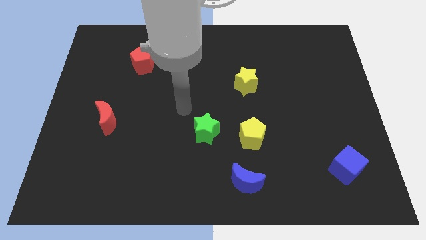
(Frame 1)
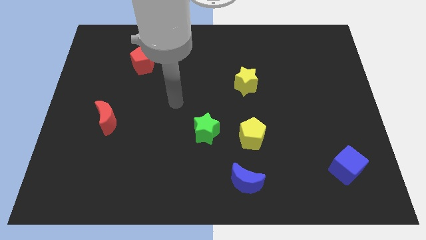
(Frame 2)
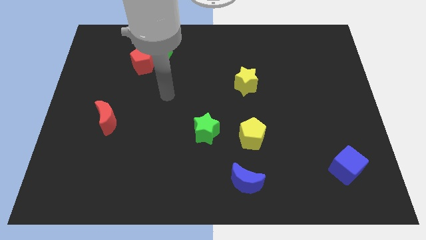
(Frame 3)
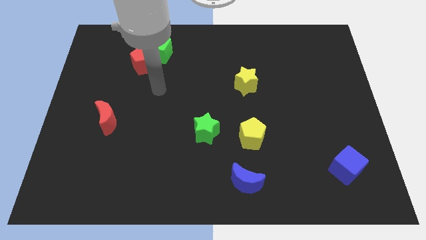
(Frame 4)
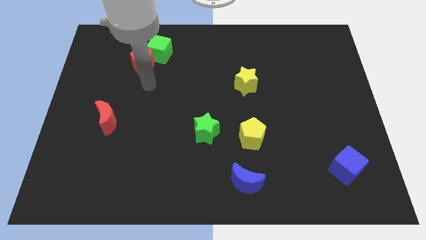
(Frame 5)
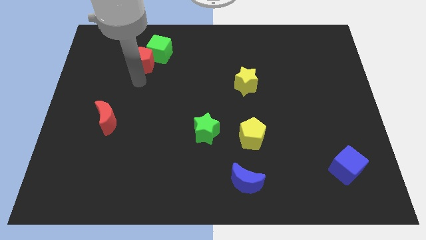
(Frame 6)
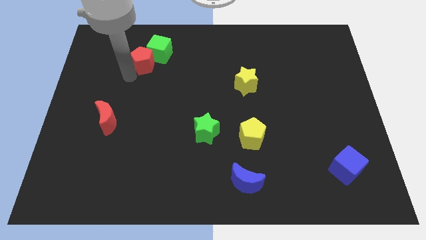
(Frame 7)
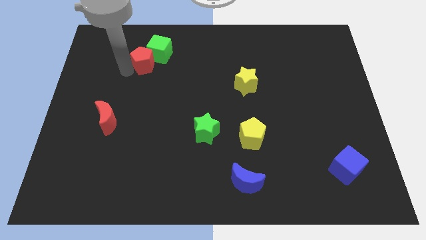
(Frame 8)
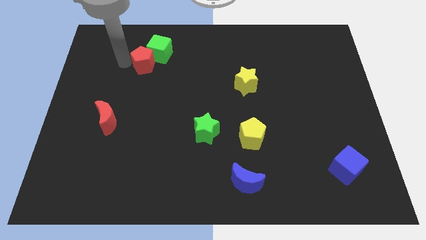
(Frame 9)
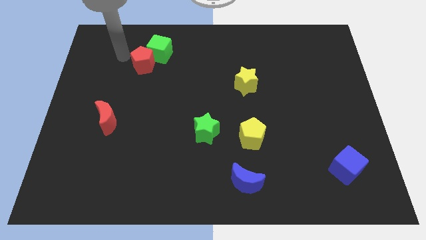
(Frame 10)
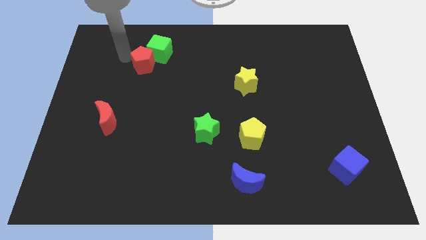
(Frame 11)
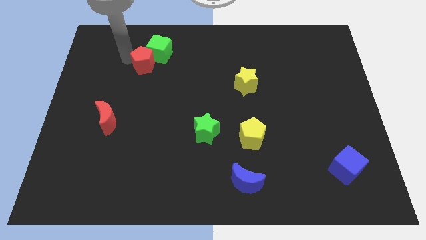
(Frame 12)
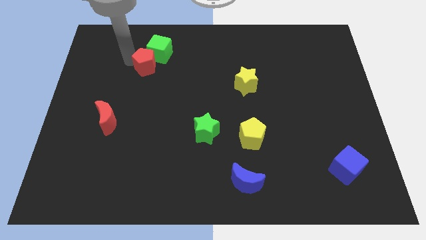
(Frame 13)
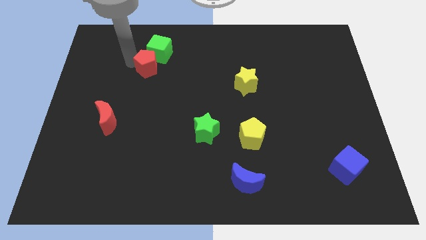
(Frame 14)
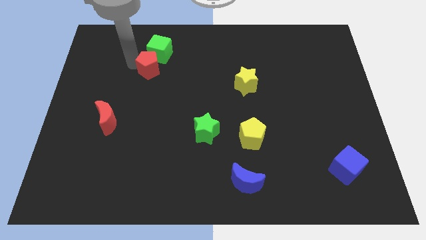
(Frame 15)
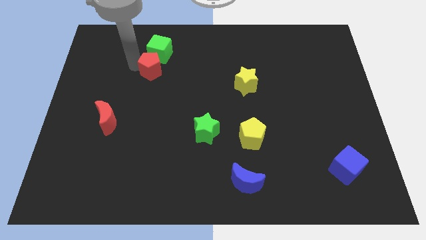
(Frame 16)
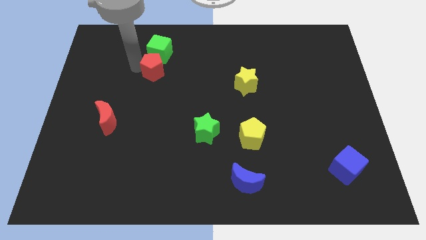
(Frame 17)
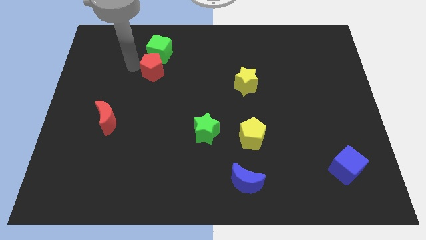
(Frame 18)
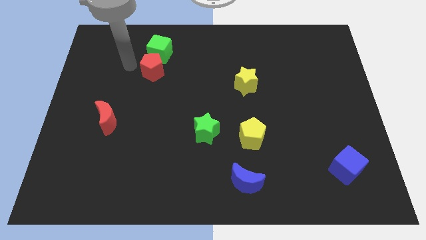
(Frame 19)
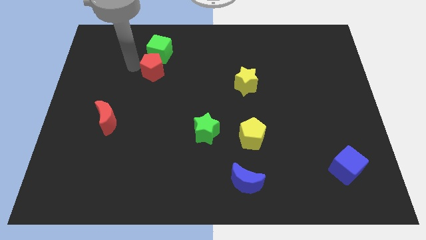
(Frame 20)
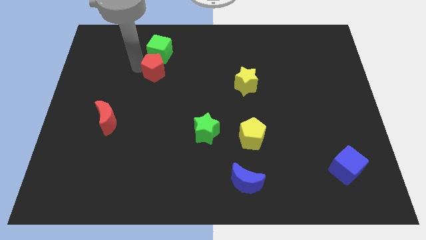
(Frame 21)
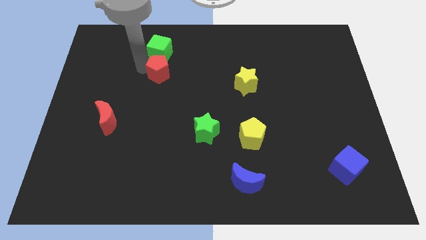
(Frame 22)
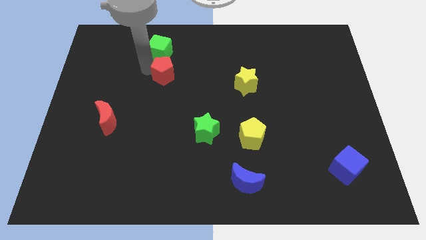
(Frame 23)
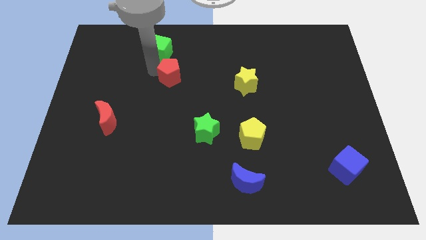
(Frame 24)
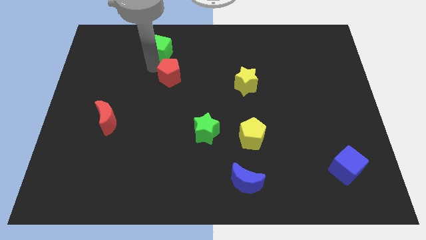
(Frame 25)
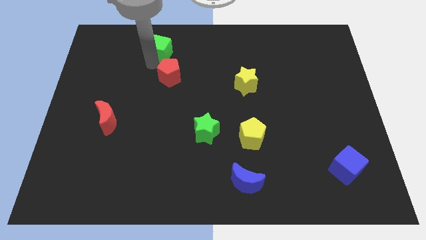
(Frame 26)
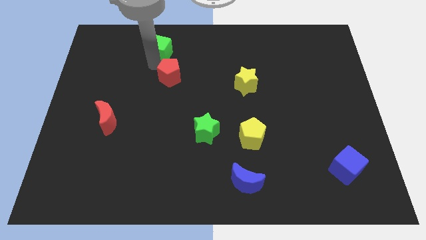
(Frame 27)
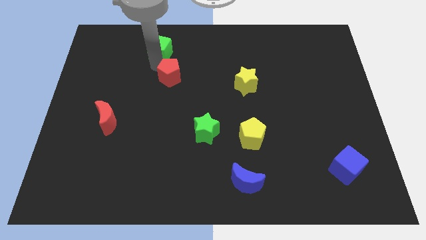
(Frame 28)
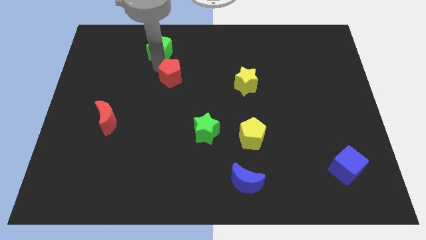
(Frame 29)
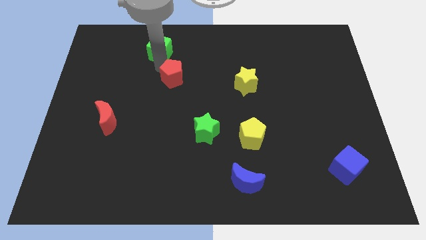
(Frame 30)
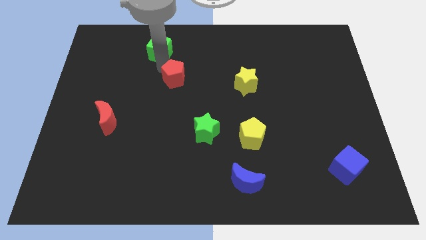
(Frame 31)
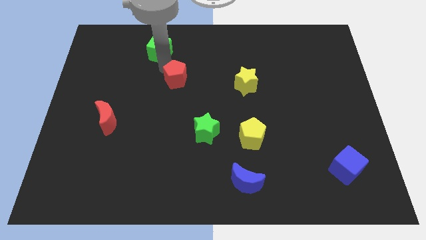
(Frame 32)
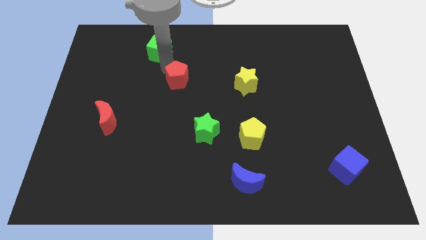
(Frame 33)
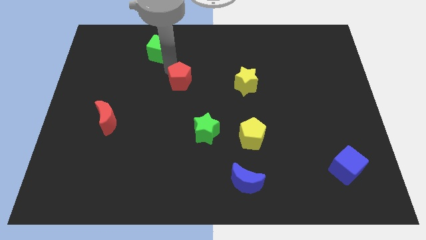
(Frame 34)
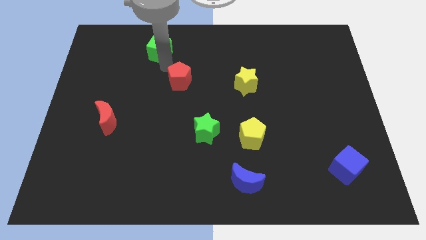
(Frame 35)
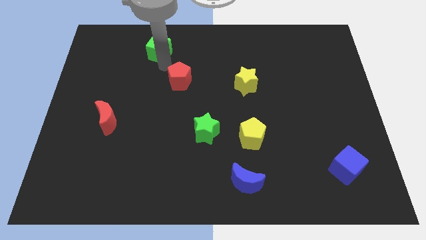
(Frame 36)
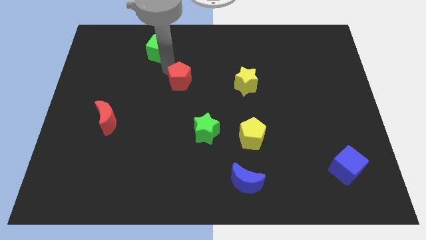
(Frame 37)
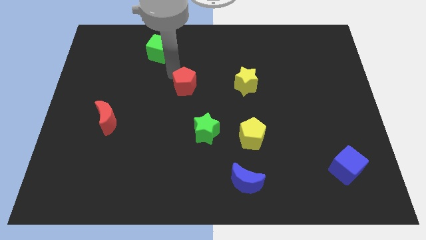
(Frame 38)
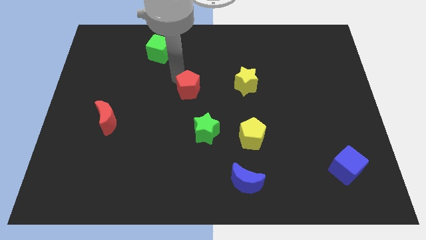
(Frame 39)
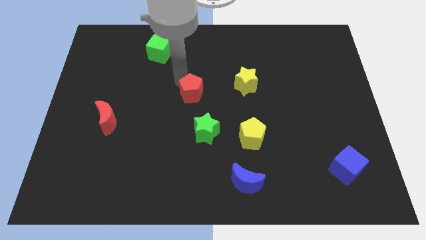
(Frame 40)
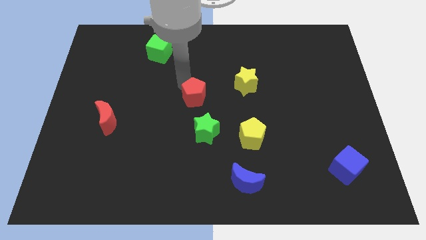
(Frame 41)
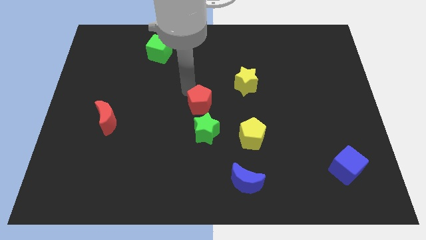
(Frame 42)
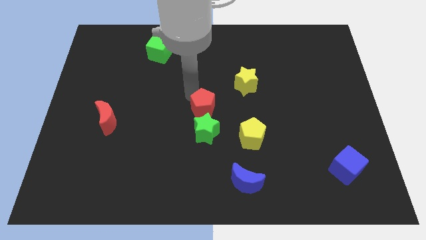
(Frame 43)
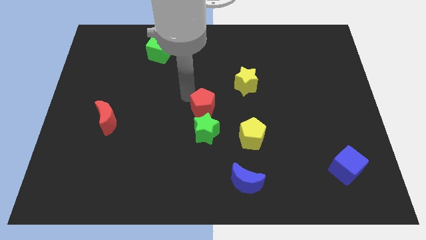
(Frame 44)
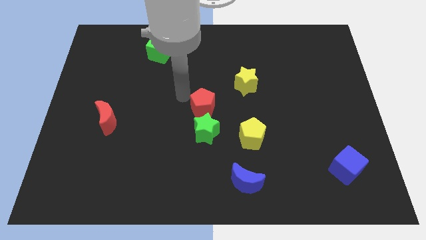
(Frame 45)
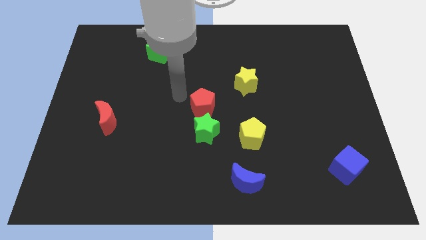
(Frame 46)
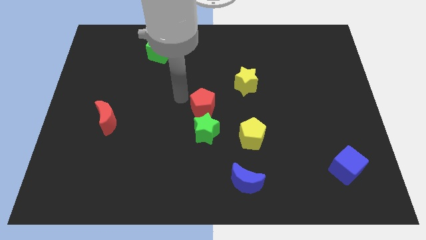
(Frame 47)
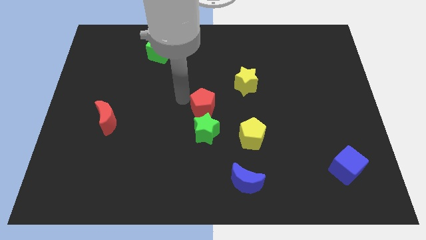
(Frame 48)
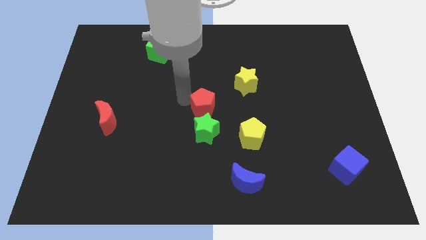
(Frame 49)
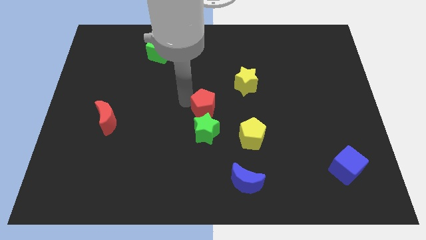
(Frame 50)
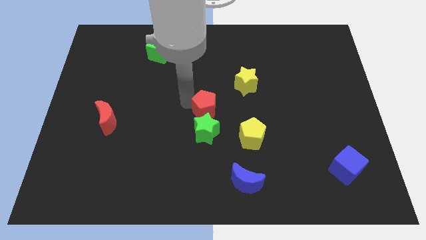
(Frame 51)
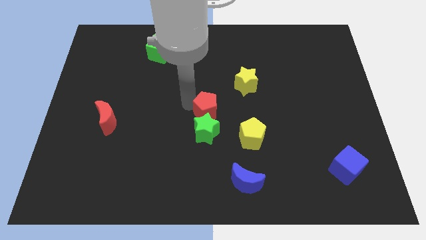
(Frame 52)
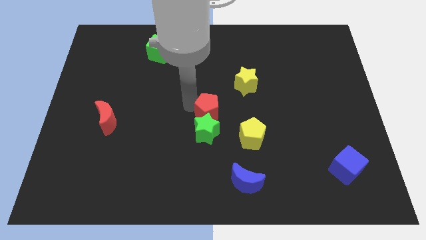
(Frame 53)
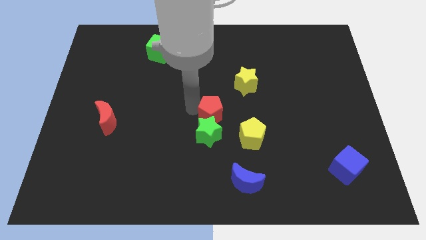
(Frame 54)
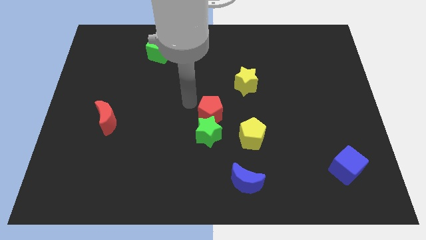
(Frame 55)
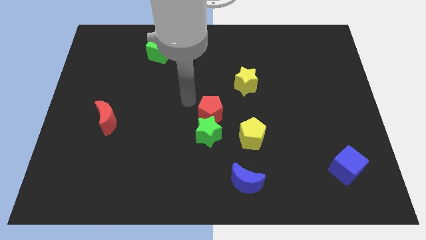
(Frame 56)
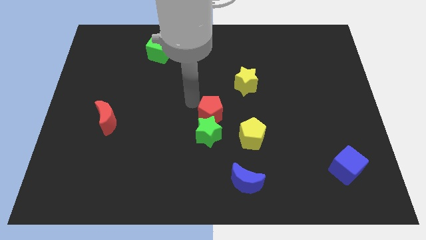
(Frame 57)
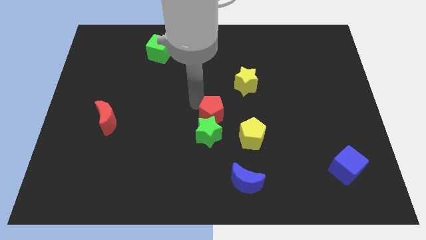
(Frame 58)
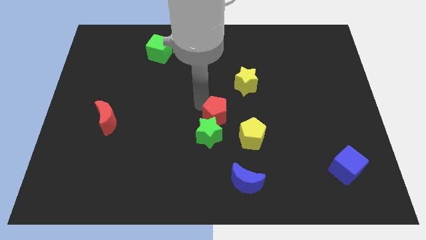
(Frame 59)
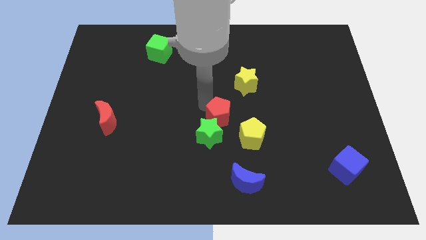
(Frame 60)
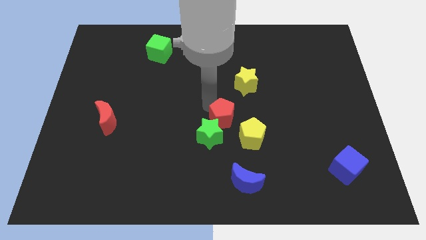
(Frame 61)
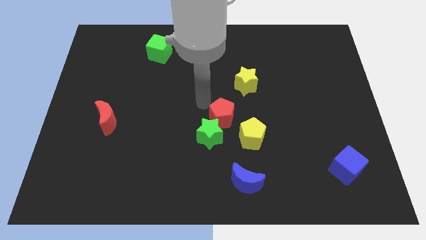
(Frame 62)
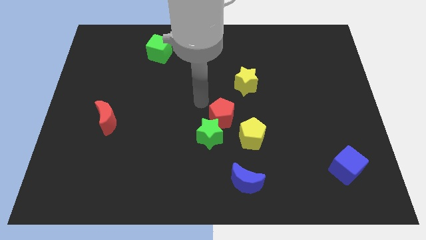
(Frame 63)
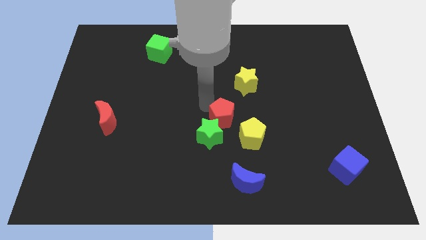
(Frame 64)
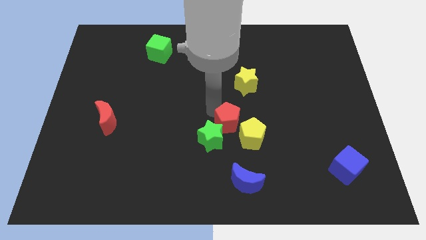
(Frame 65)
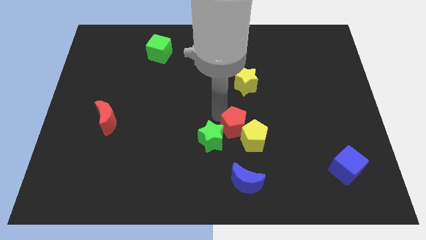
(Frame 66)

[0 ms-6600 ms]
slide the red pentagon close to the yellow pentagon
